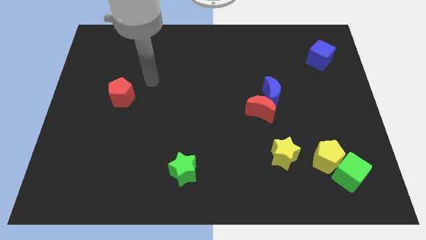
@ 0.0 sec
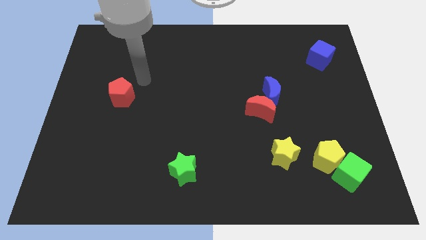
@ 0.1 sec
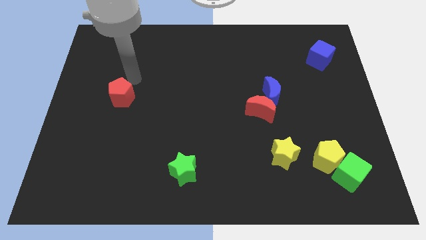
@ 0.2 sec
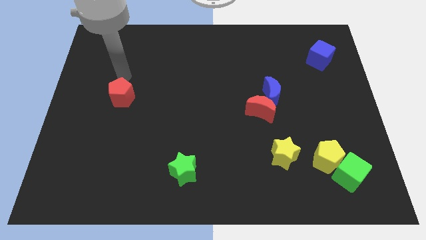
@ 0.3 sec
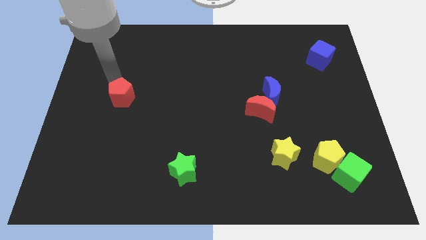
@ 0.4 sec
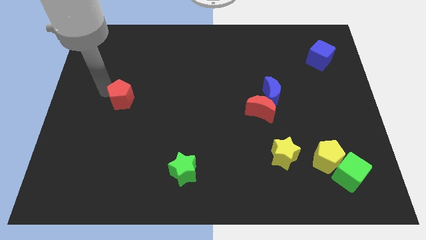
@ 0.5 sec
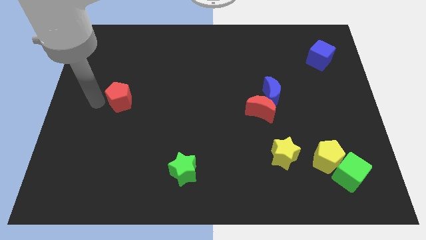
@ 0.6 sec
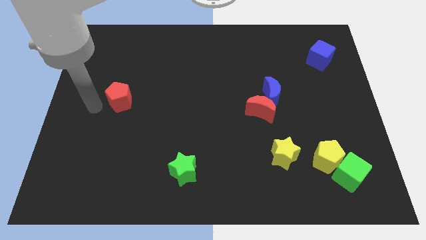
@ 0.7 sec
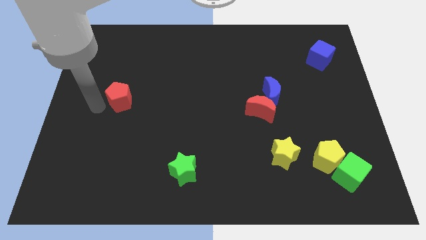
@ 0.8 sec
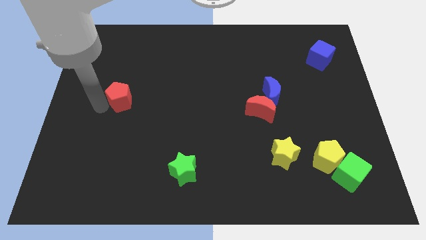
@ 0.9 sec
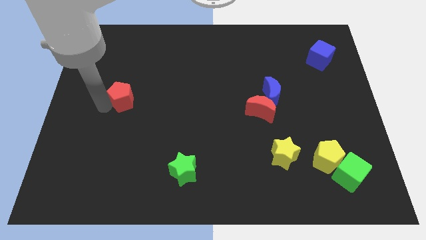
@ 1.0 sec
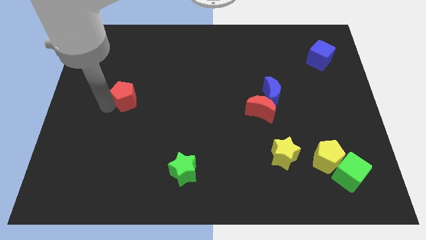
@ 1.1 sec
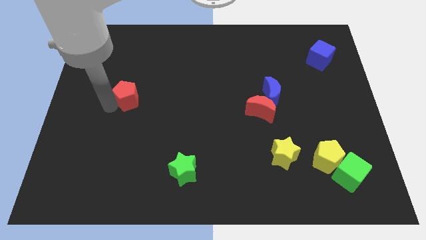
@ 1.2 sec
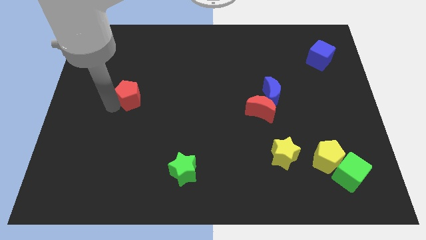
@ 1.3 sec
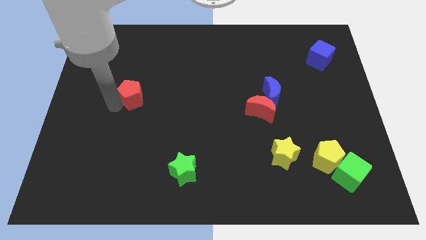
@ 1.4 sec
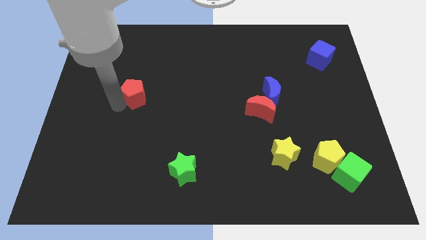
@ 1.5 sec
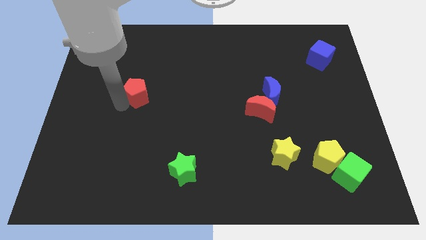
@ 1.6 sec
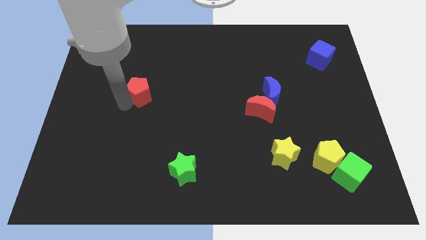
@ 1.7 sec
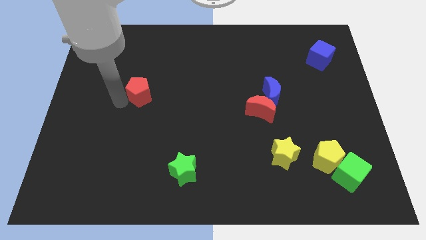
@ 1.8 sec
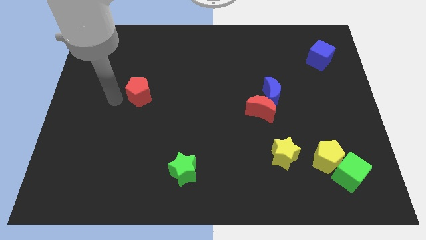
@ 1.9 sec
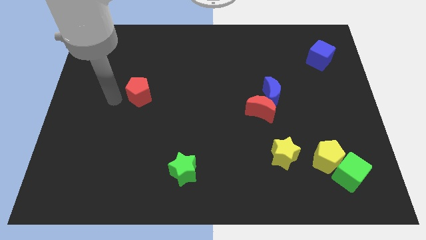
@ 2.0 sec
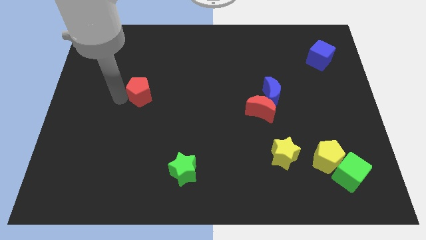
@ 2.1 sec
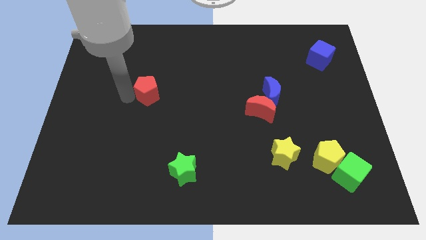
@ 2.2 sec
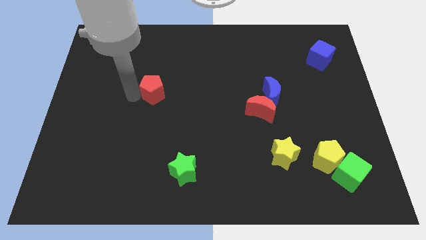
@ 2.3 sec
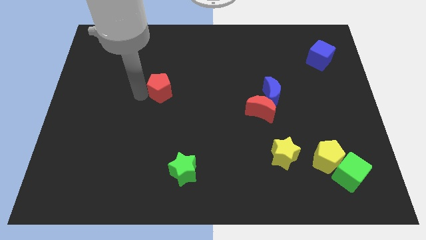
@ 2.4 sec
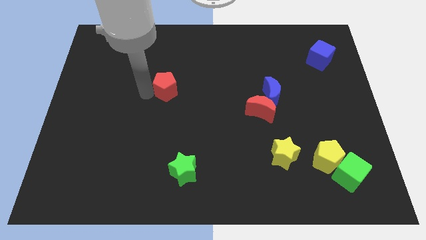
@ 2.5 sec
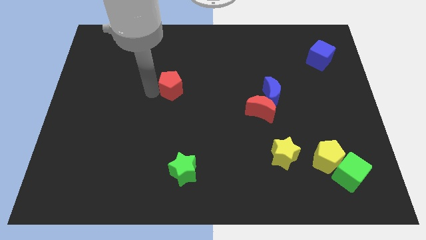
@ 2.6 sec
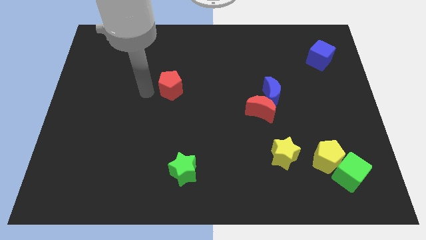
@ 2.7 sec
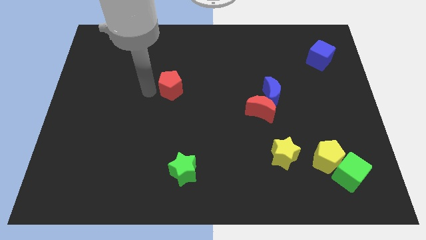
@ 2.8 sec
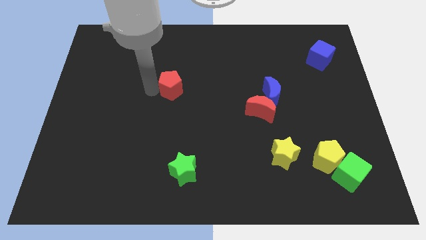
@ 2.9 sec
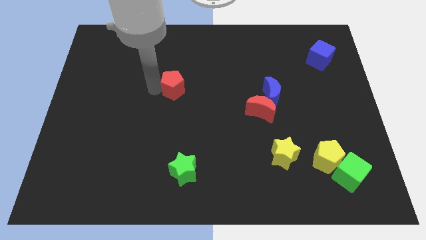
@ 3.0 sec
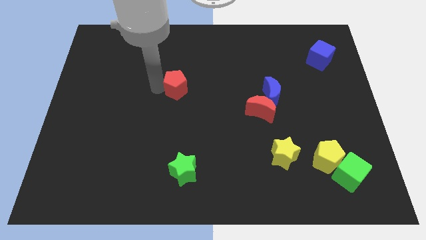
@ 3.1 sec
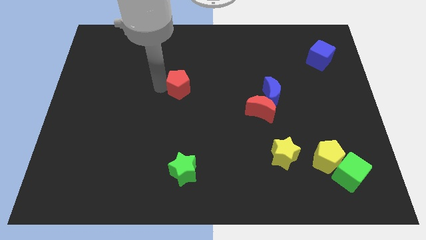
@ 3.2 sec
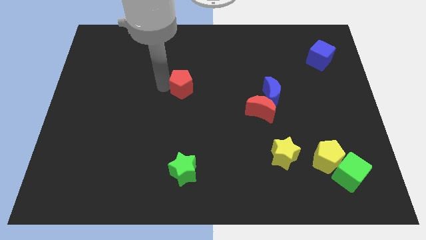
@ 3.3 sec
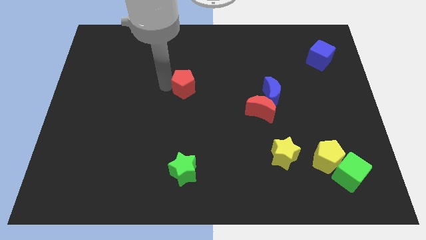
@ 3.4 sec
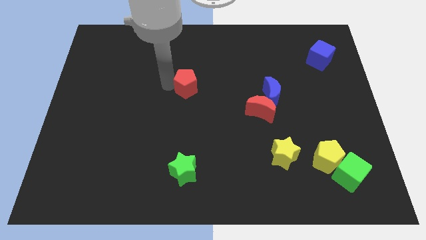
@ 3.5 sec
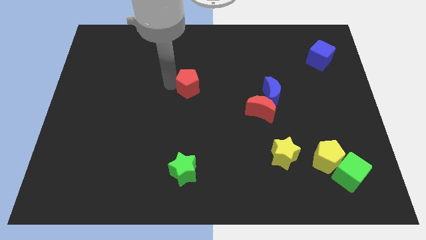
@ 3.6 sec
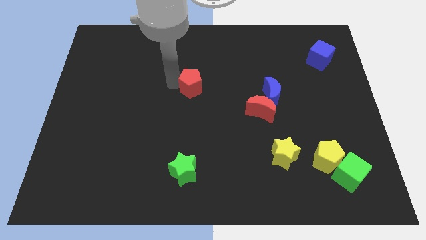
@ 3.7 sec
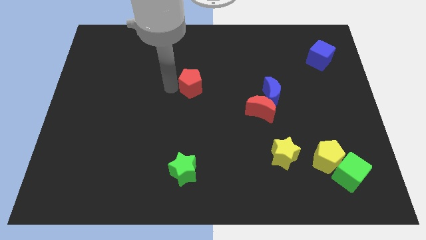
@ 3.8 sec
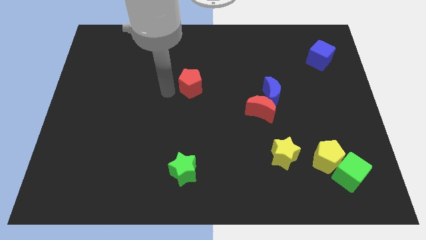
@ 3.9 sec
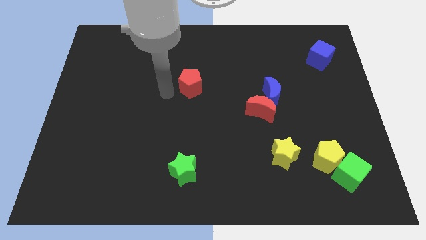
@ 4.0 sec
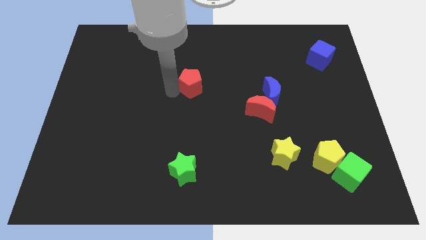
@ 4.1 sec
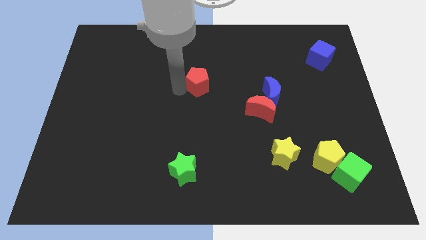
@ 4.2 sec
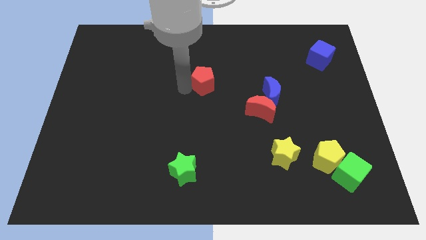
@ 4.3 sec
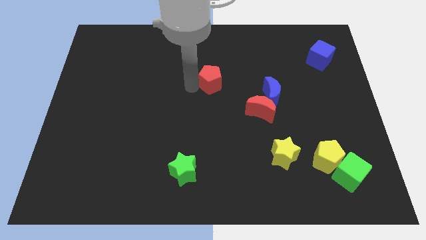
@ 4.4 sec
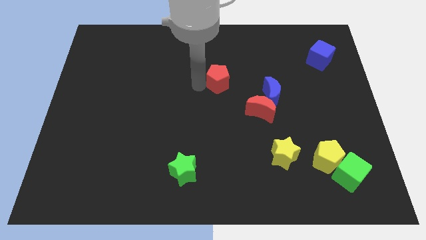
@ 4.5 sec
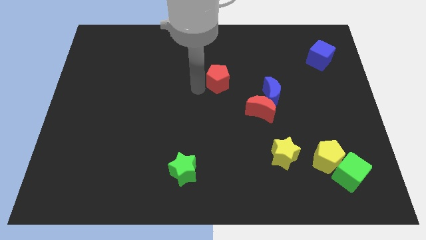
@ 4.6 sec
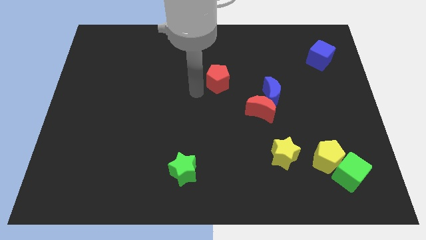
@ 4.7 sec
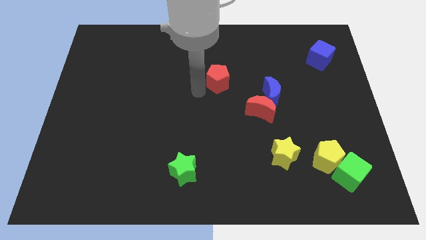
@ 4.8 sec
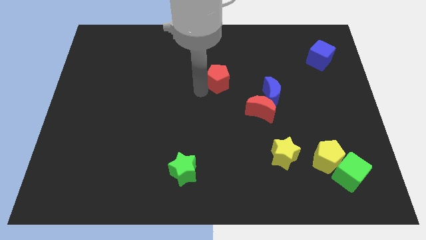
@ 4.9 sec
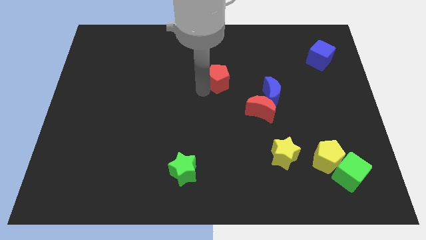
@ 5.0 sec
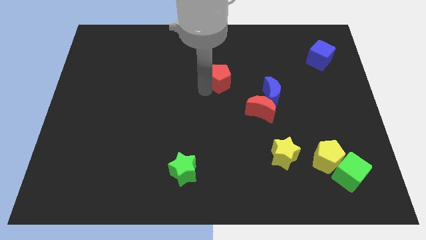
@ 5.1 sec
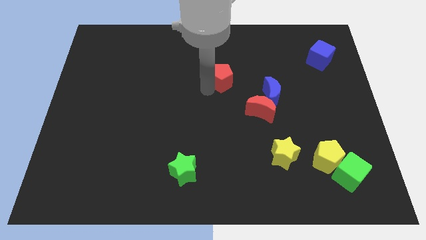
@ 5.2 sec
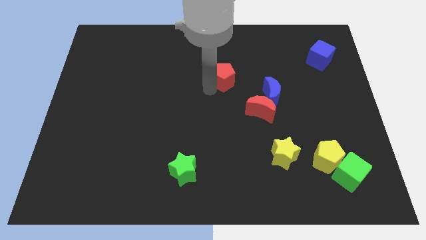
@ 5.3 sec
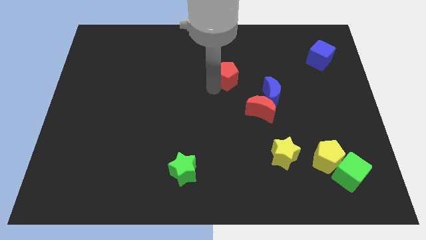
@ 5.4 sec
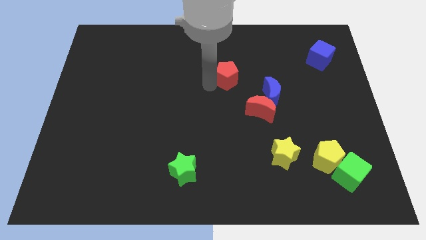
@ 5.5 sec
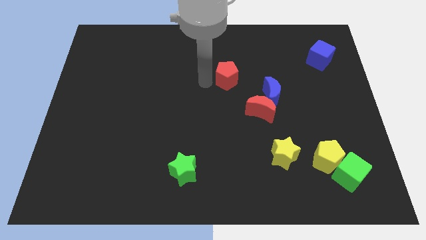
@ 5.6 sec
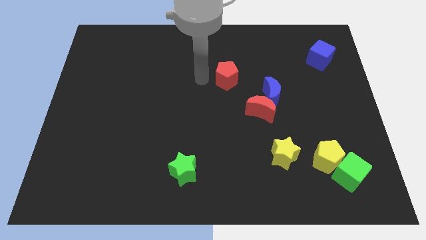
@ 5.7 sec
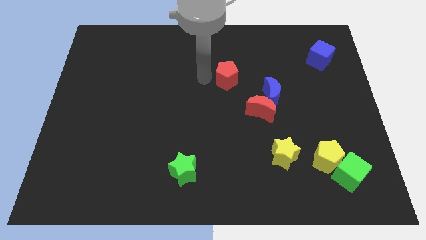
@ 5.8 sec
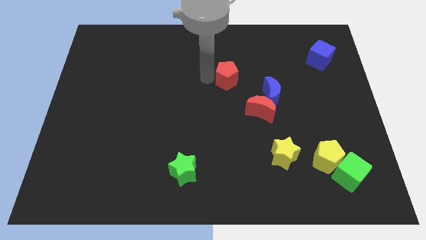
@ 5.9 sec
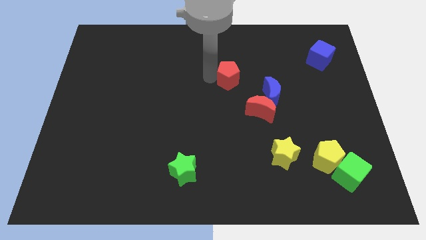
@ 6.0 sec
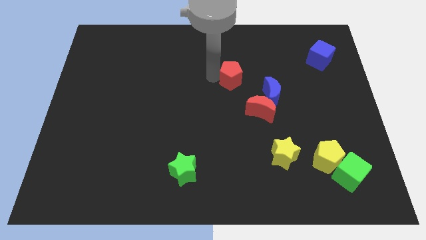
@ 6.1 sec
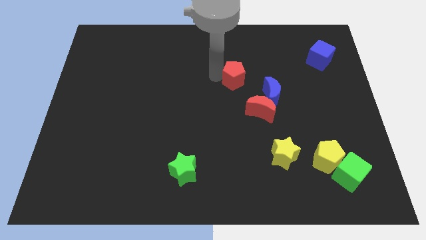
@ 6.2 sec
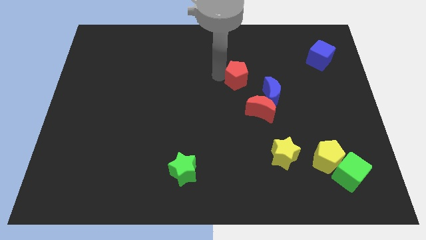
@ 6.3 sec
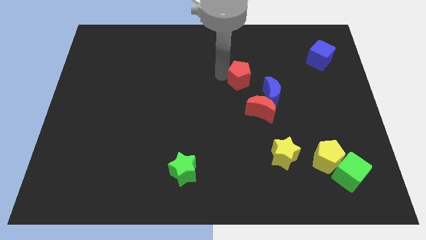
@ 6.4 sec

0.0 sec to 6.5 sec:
slide the red pentagon to the top of the red moon

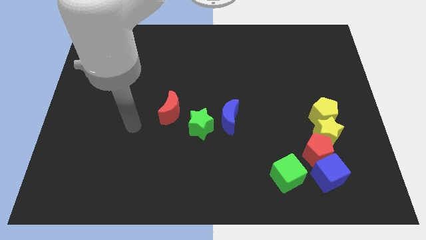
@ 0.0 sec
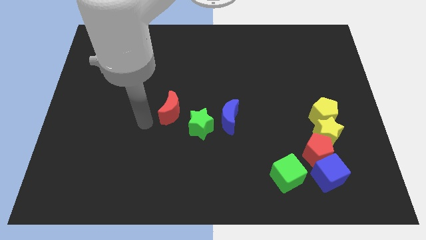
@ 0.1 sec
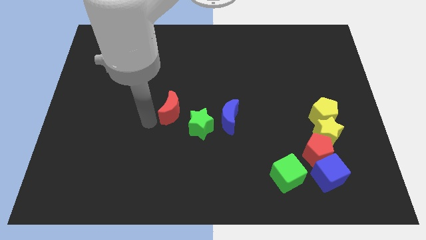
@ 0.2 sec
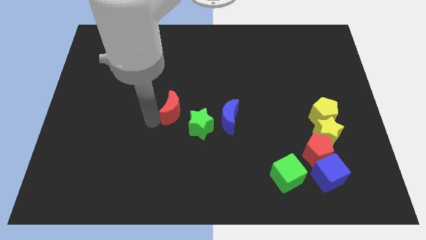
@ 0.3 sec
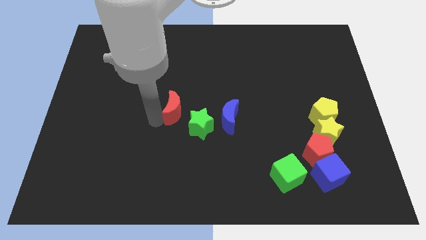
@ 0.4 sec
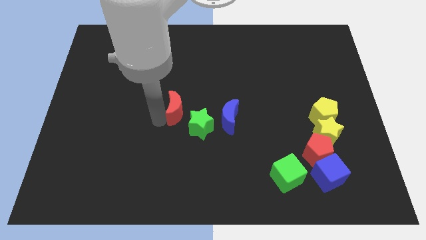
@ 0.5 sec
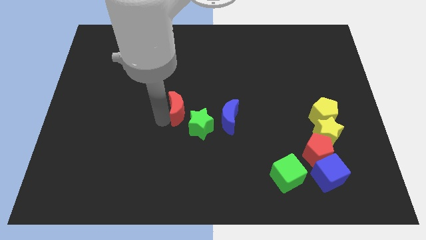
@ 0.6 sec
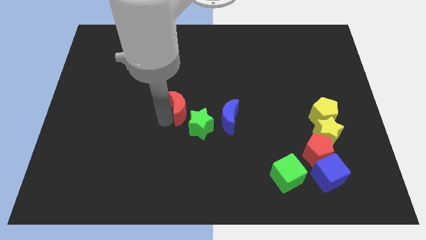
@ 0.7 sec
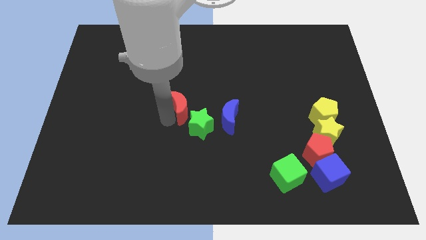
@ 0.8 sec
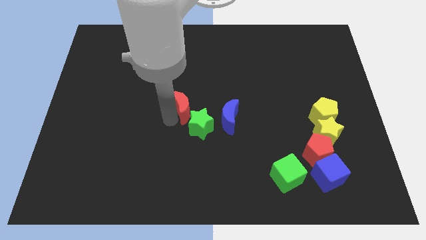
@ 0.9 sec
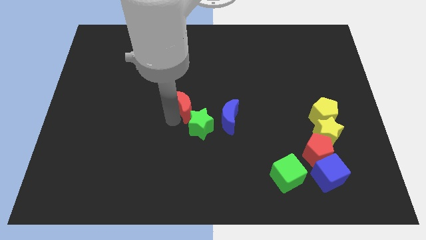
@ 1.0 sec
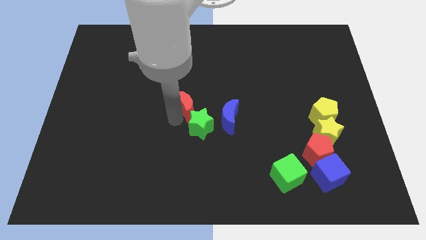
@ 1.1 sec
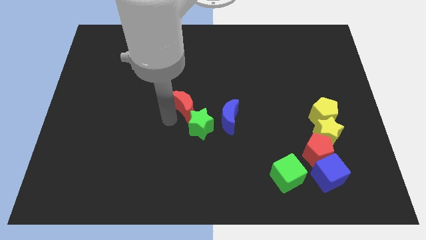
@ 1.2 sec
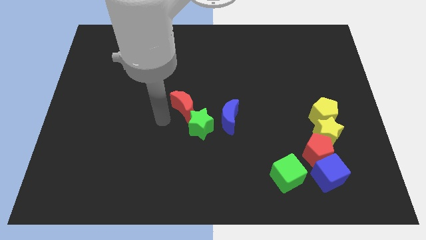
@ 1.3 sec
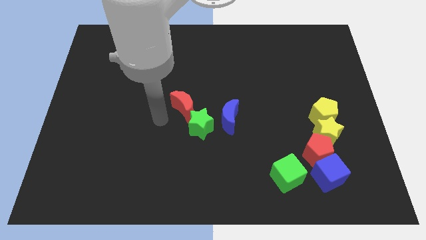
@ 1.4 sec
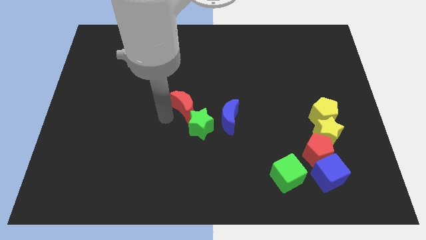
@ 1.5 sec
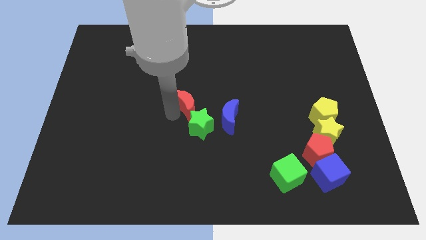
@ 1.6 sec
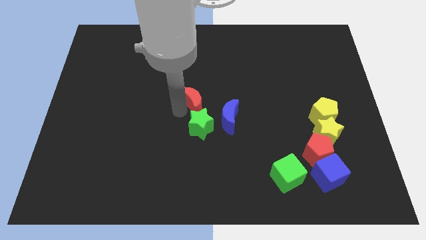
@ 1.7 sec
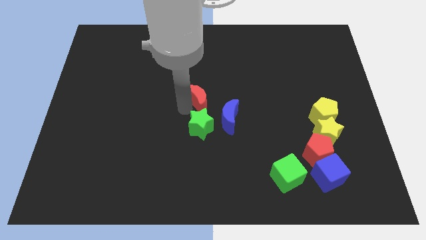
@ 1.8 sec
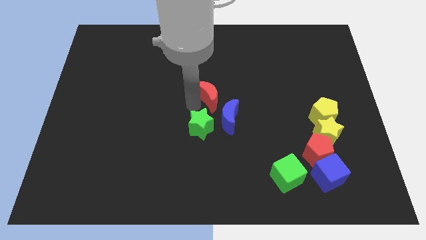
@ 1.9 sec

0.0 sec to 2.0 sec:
push the red moon above the blue moon
